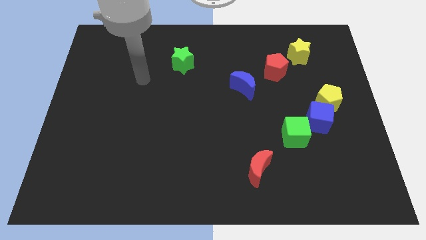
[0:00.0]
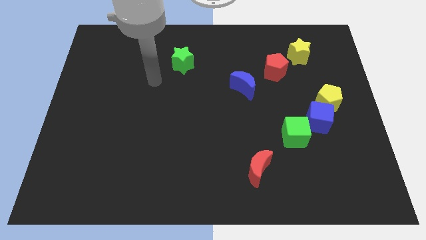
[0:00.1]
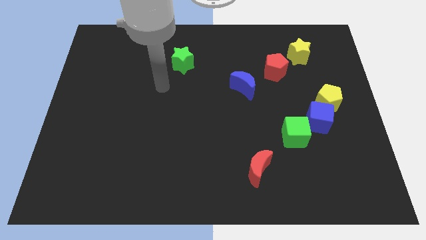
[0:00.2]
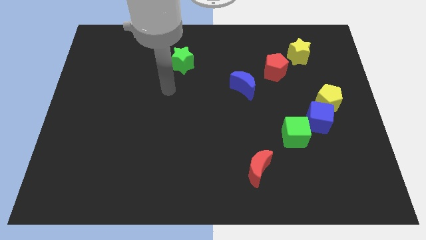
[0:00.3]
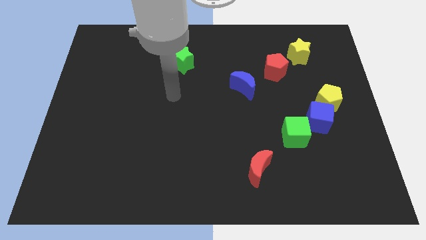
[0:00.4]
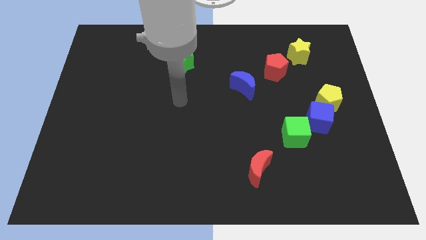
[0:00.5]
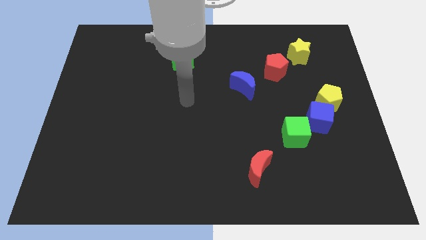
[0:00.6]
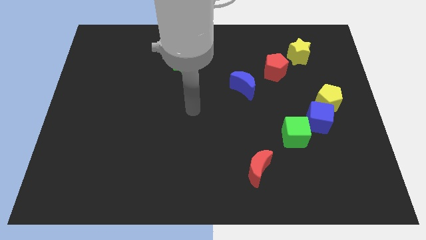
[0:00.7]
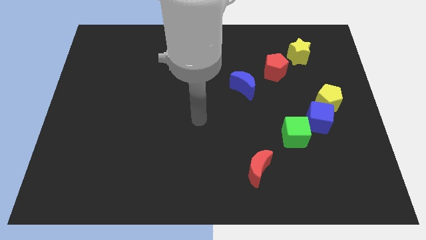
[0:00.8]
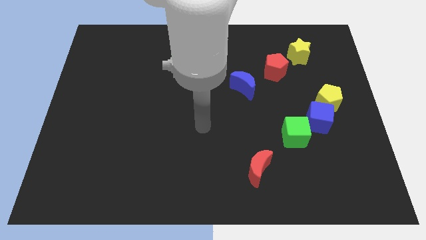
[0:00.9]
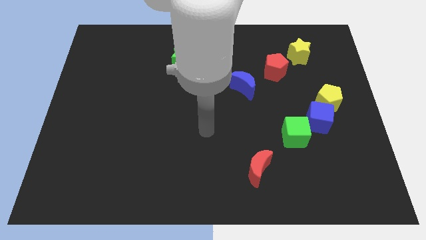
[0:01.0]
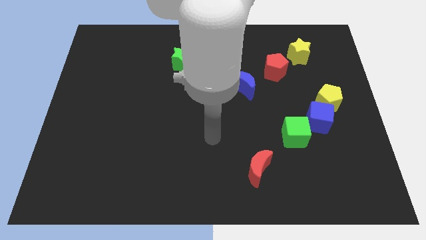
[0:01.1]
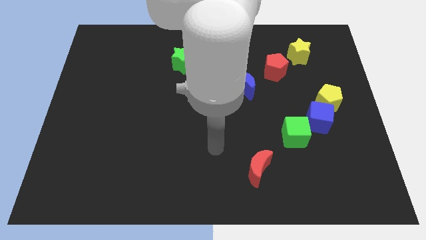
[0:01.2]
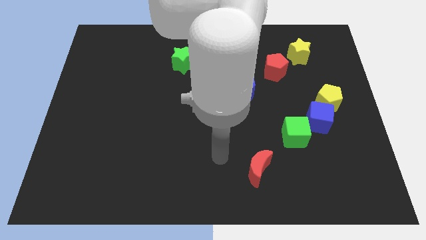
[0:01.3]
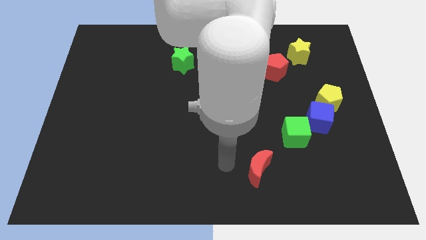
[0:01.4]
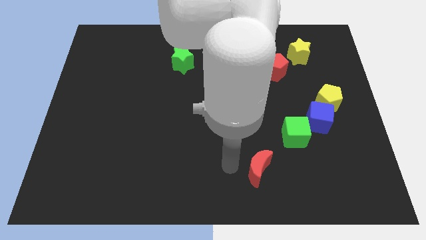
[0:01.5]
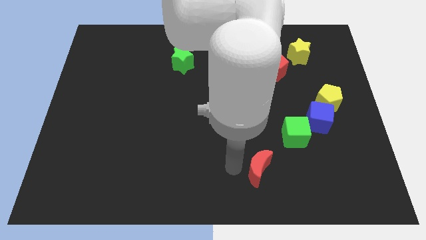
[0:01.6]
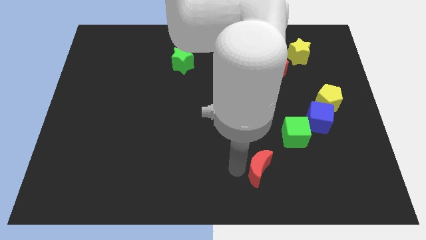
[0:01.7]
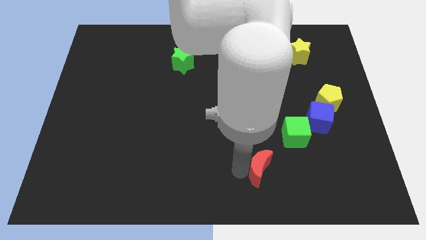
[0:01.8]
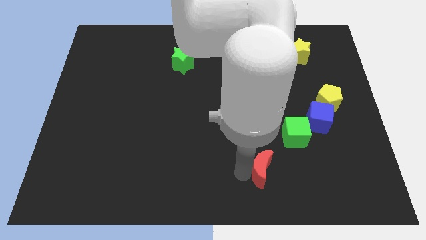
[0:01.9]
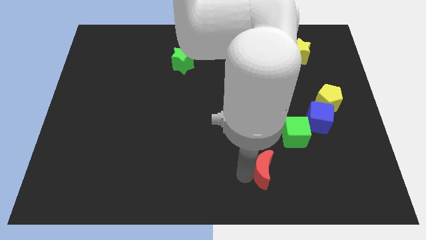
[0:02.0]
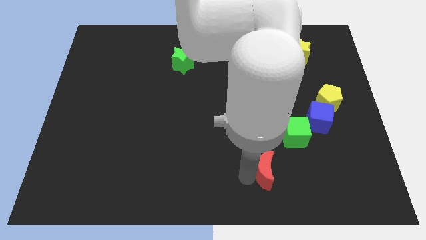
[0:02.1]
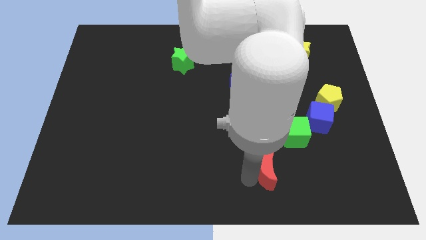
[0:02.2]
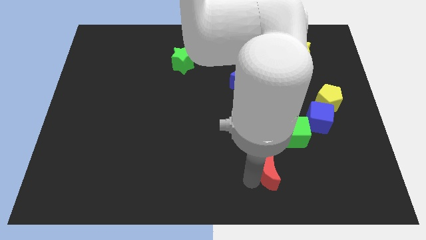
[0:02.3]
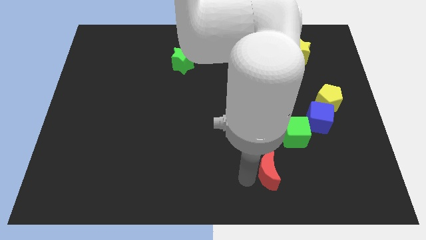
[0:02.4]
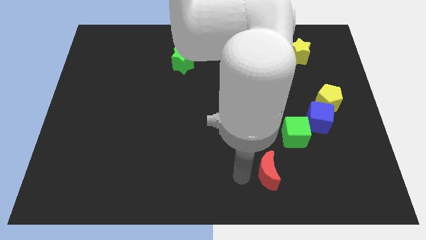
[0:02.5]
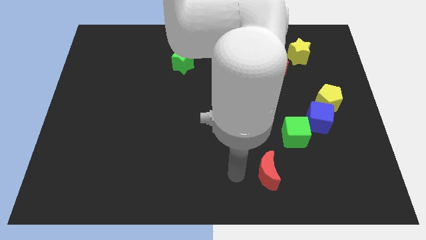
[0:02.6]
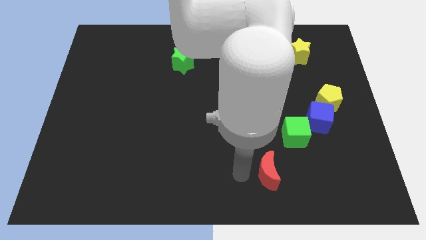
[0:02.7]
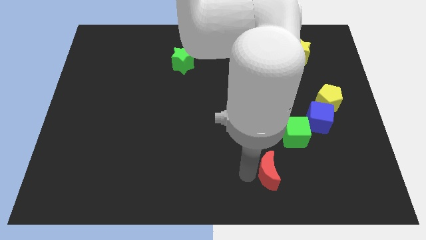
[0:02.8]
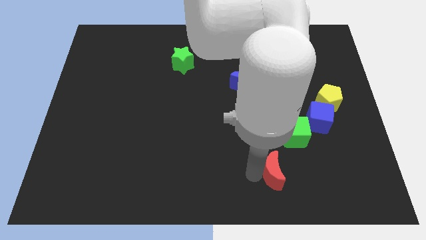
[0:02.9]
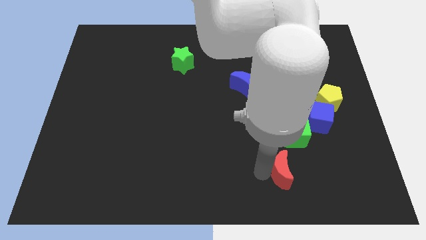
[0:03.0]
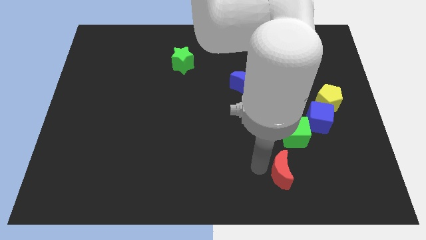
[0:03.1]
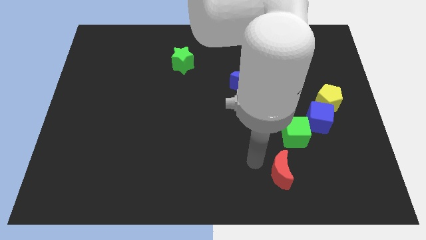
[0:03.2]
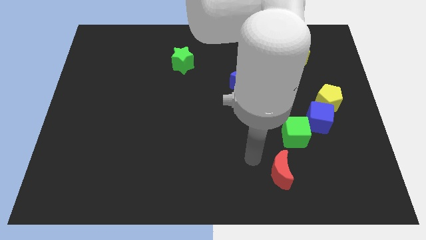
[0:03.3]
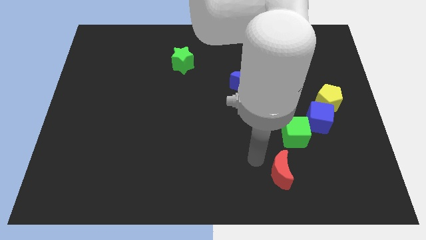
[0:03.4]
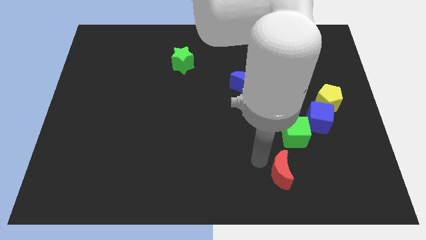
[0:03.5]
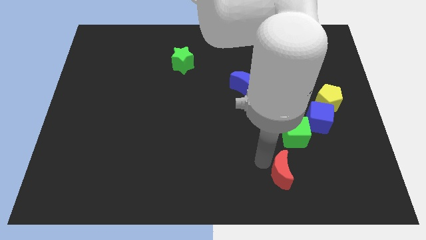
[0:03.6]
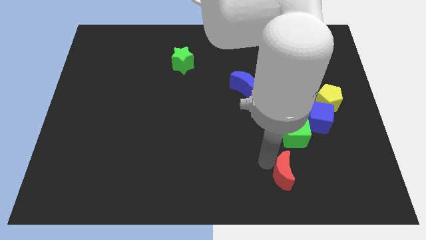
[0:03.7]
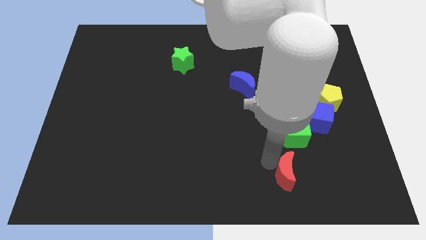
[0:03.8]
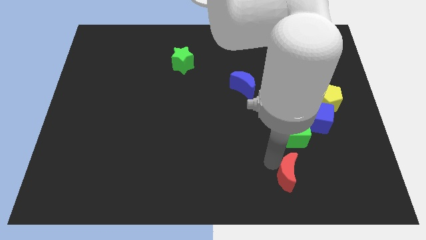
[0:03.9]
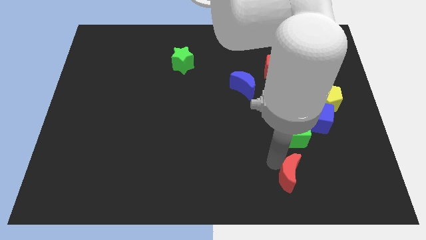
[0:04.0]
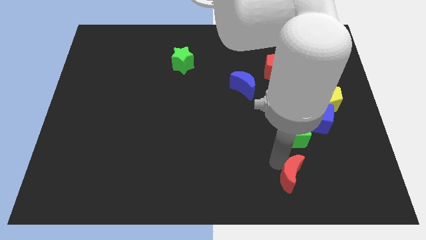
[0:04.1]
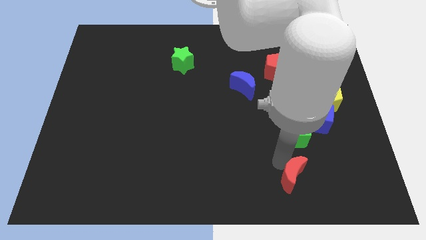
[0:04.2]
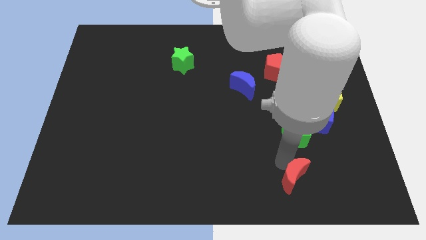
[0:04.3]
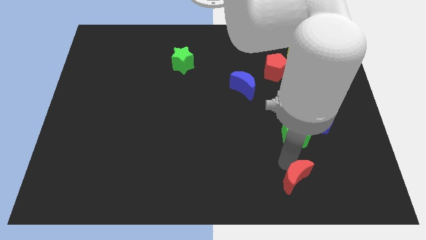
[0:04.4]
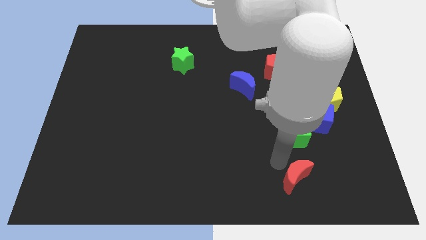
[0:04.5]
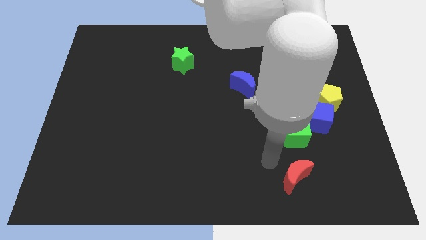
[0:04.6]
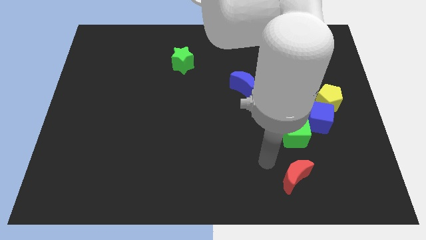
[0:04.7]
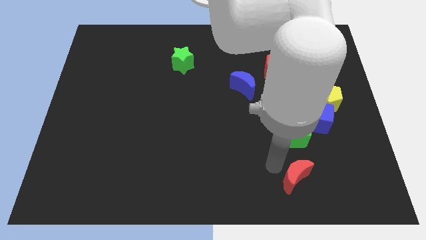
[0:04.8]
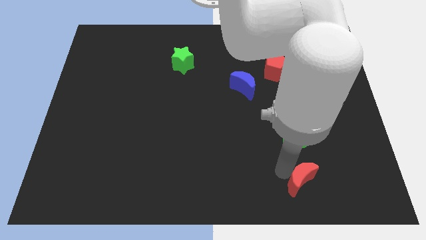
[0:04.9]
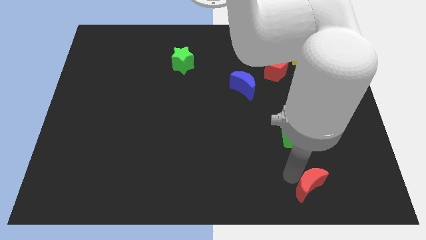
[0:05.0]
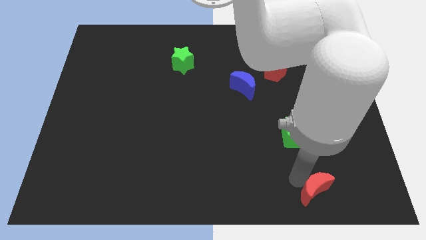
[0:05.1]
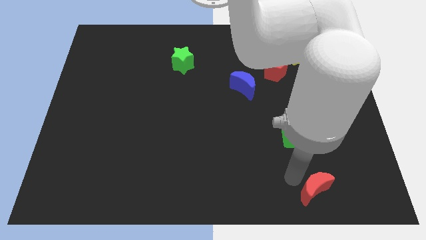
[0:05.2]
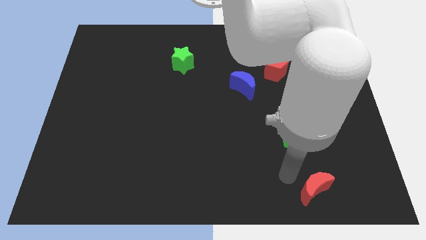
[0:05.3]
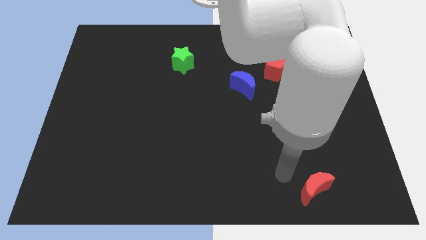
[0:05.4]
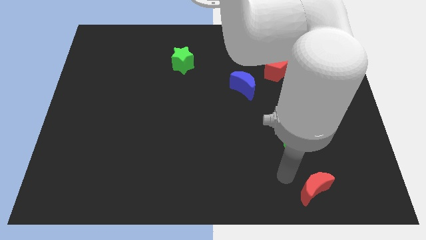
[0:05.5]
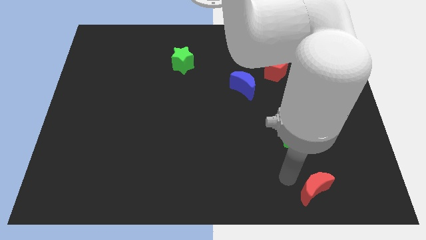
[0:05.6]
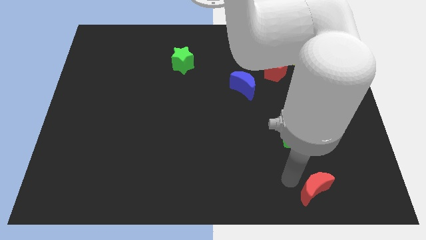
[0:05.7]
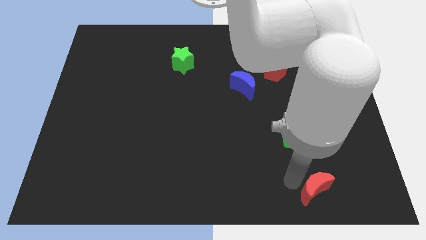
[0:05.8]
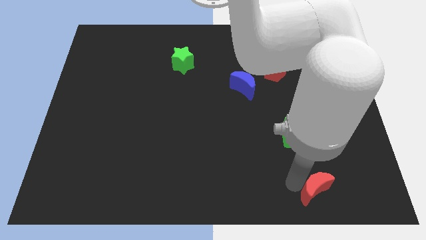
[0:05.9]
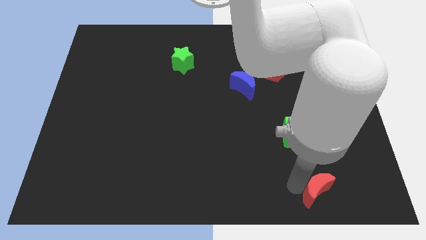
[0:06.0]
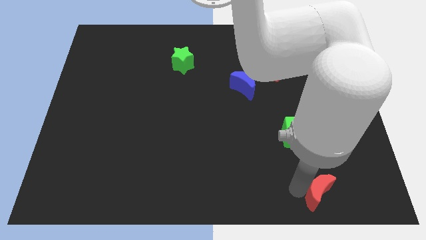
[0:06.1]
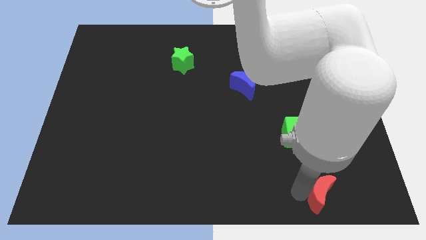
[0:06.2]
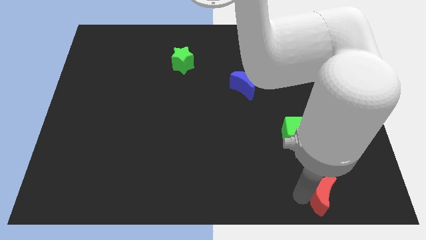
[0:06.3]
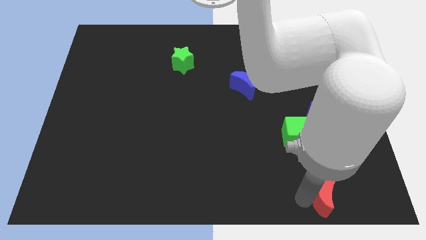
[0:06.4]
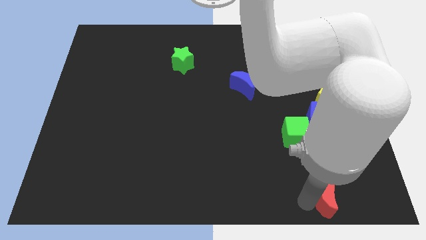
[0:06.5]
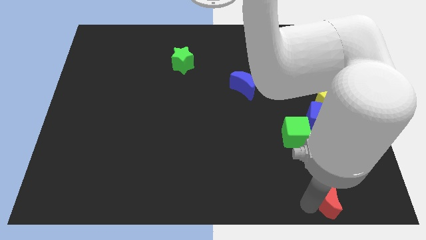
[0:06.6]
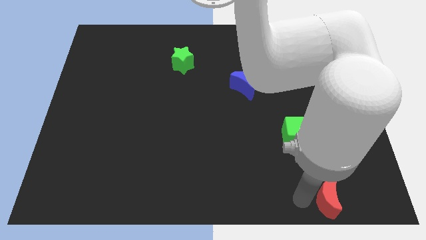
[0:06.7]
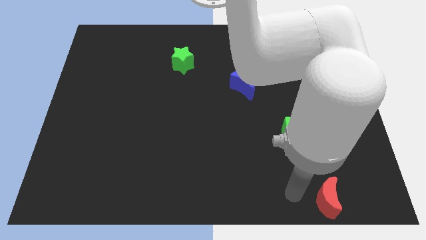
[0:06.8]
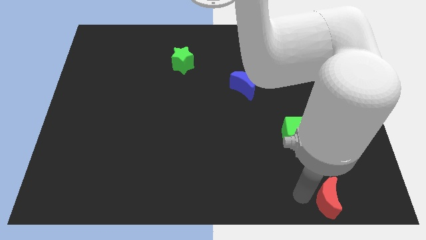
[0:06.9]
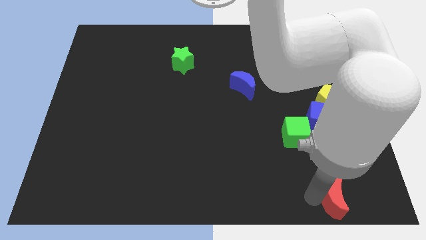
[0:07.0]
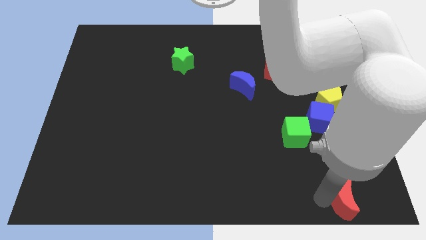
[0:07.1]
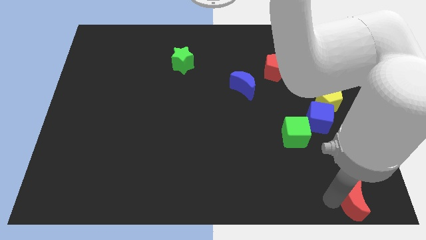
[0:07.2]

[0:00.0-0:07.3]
put the red moon to the lower right corner
